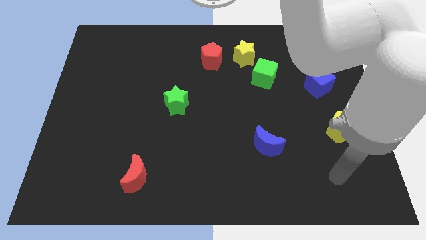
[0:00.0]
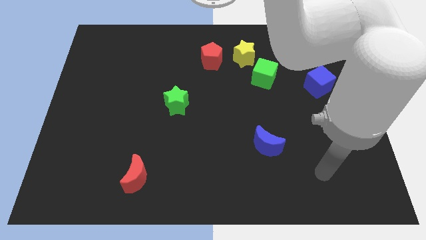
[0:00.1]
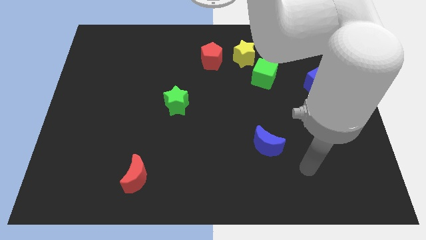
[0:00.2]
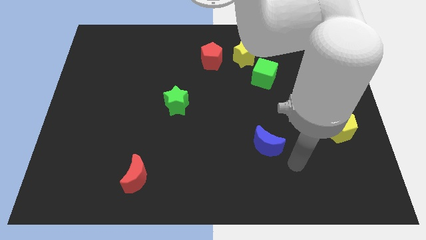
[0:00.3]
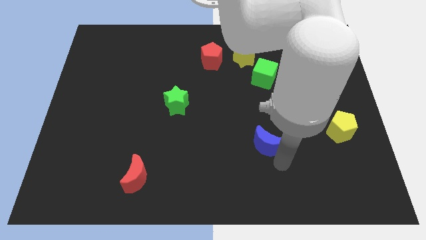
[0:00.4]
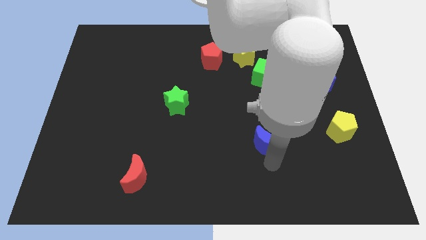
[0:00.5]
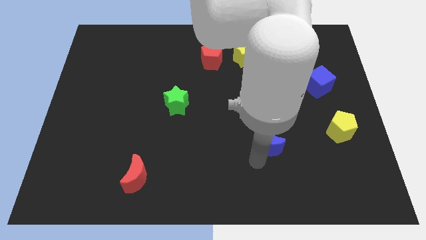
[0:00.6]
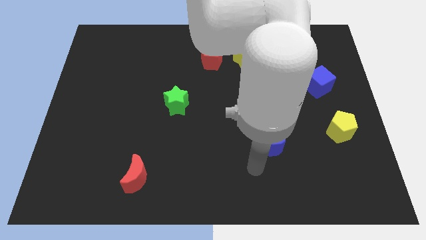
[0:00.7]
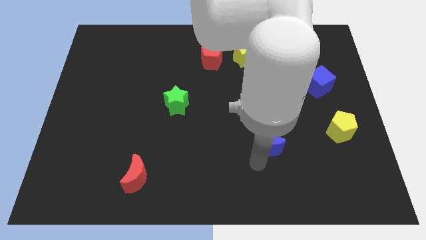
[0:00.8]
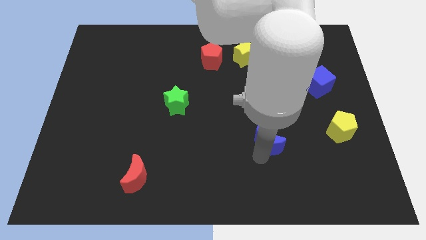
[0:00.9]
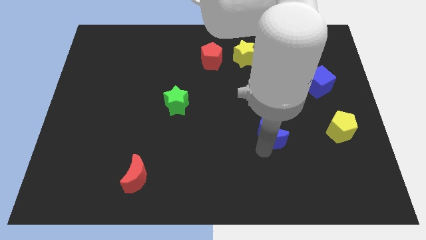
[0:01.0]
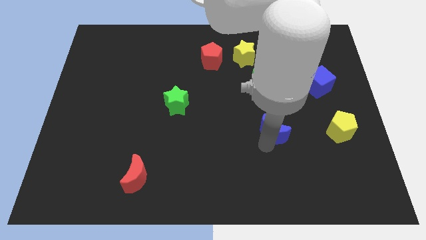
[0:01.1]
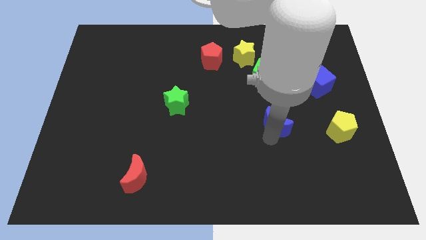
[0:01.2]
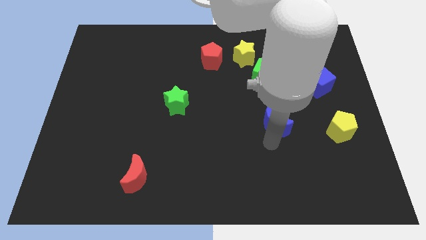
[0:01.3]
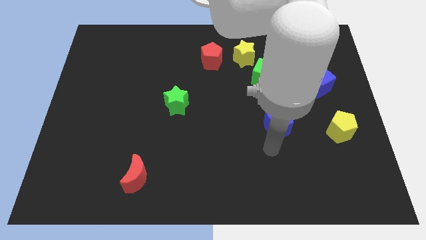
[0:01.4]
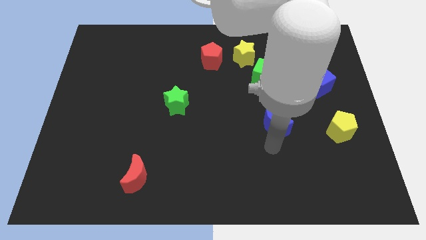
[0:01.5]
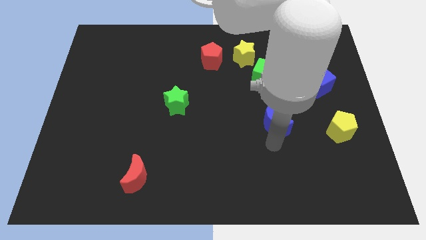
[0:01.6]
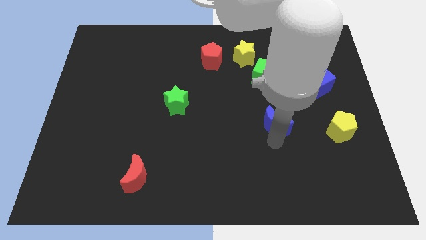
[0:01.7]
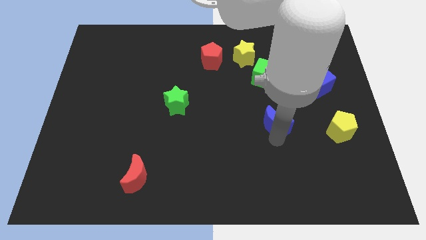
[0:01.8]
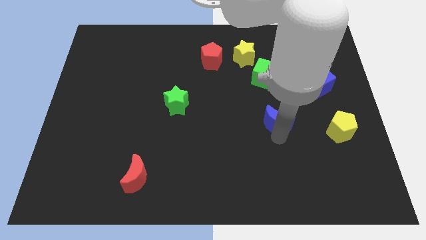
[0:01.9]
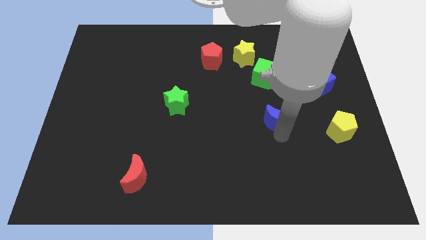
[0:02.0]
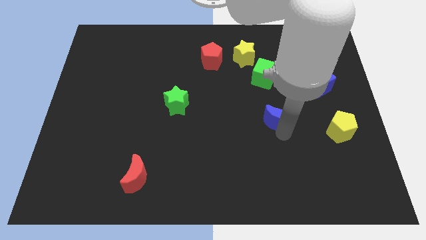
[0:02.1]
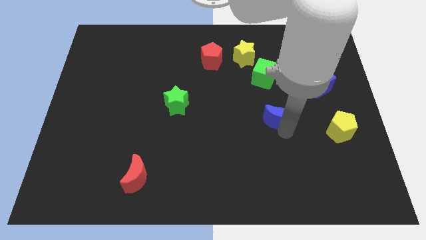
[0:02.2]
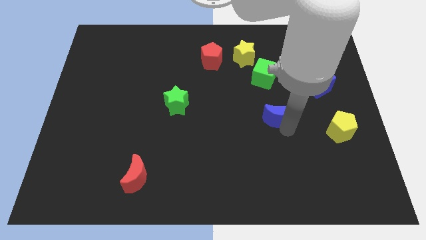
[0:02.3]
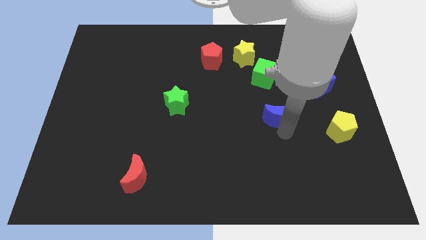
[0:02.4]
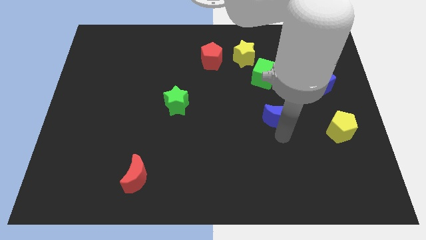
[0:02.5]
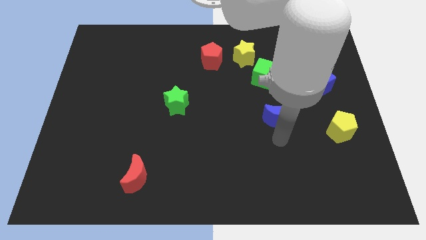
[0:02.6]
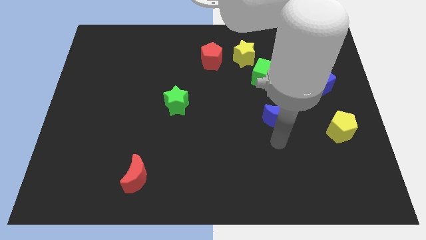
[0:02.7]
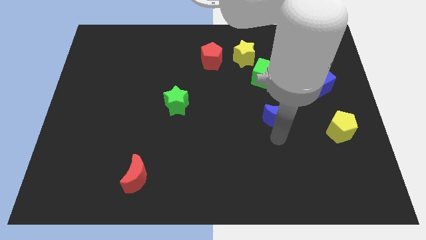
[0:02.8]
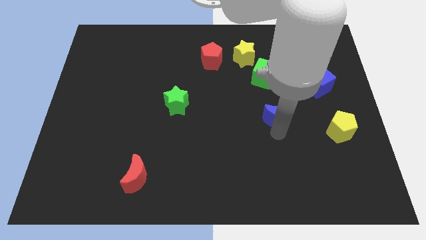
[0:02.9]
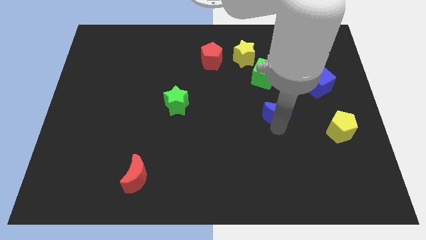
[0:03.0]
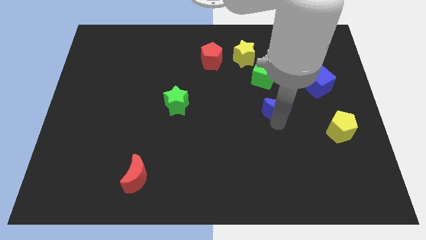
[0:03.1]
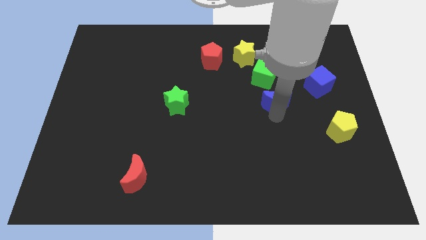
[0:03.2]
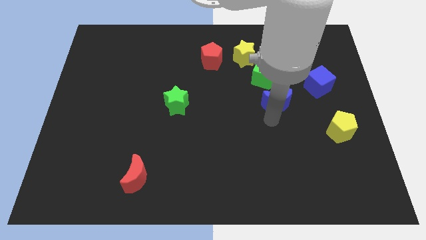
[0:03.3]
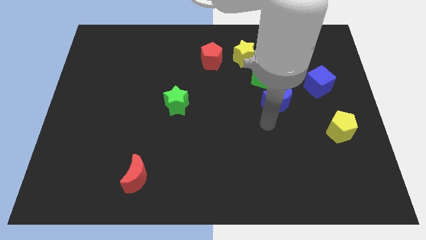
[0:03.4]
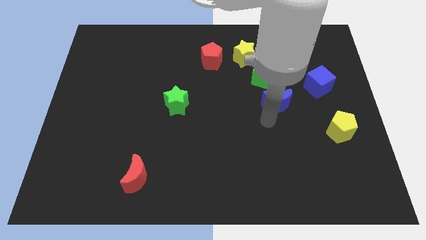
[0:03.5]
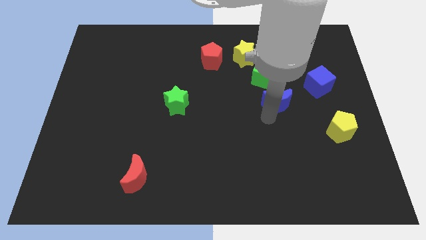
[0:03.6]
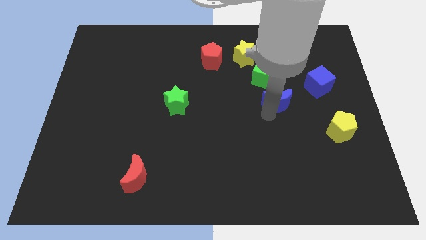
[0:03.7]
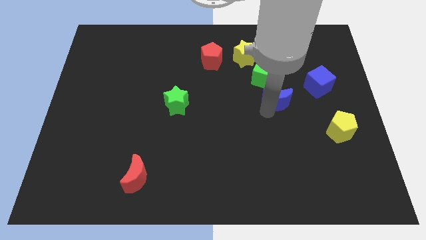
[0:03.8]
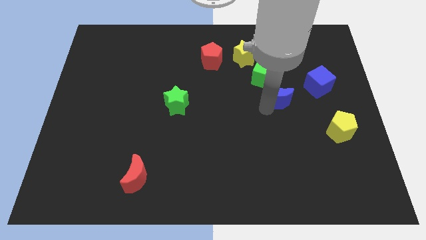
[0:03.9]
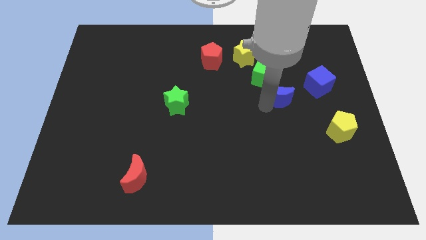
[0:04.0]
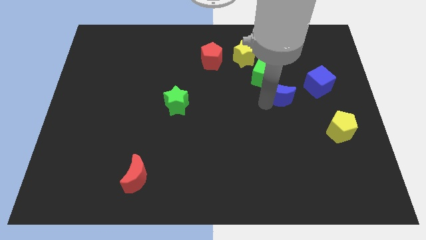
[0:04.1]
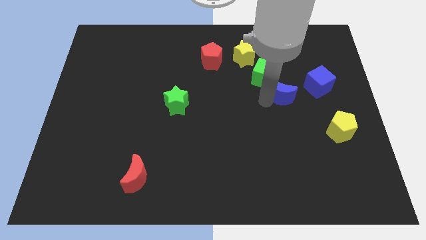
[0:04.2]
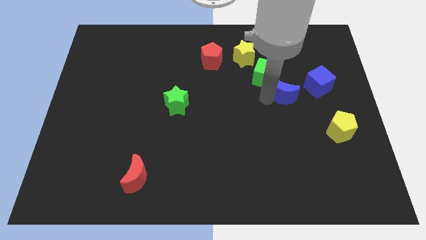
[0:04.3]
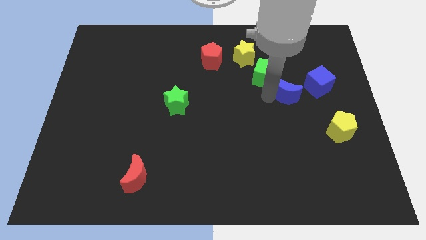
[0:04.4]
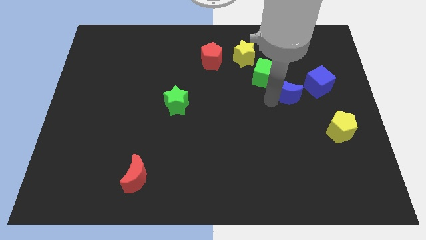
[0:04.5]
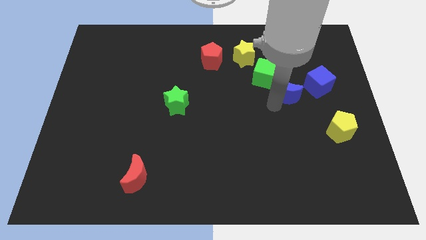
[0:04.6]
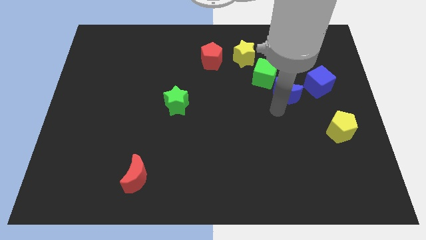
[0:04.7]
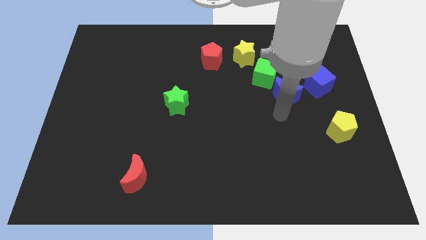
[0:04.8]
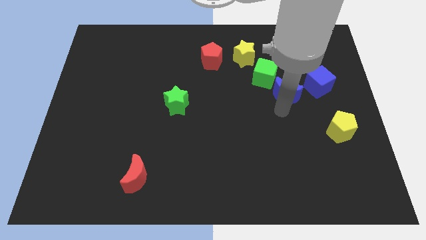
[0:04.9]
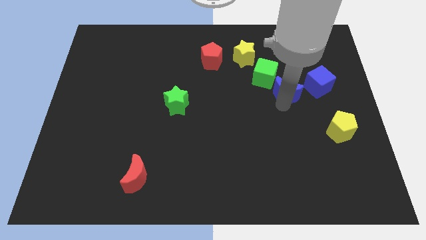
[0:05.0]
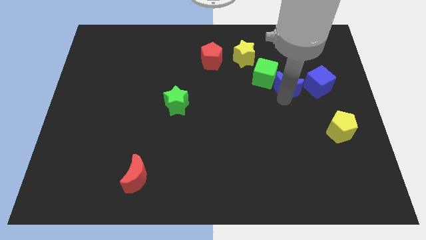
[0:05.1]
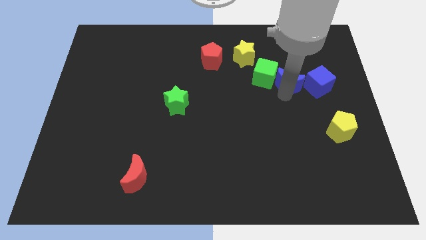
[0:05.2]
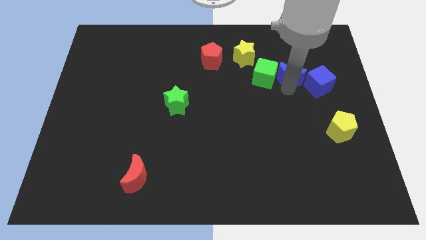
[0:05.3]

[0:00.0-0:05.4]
push the blue moon diagonally up and to the right of the green cube

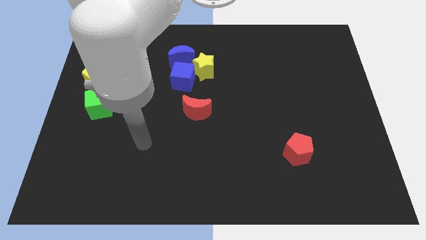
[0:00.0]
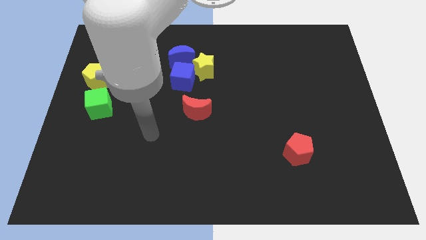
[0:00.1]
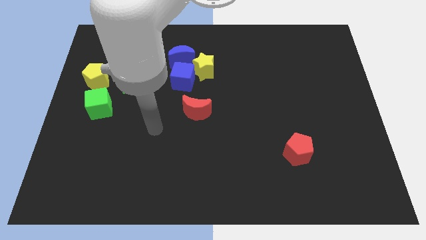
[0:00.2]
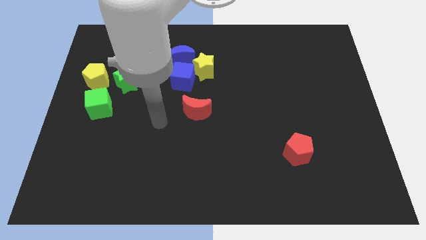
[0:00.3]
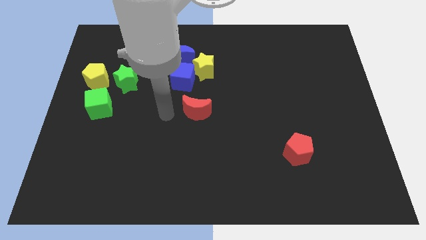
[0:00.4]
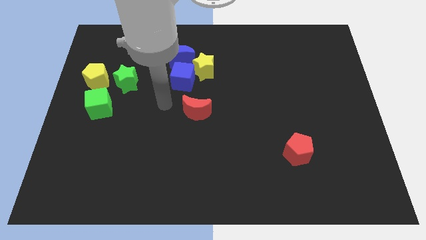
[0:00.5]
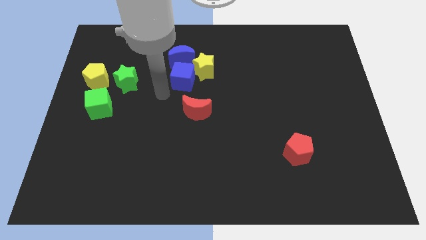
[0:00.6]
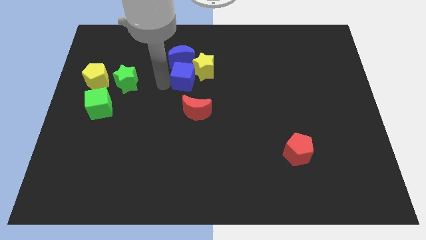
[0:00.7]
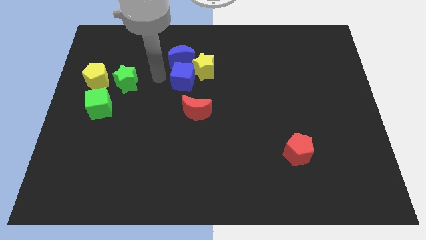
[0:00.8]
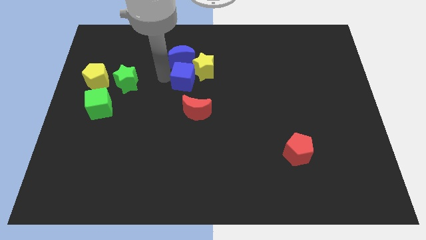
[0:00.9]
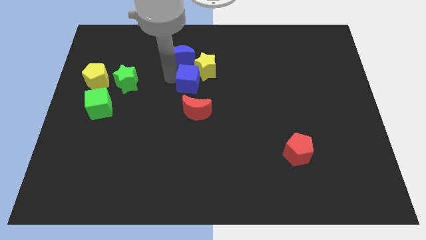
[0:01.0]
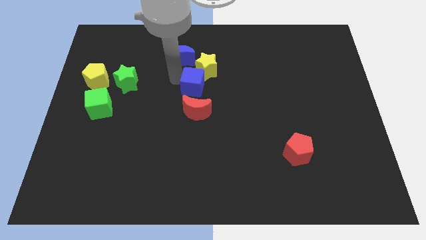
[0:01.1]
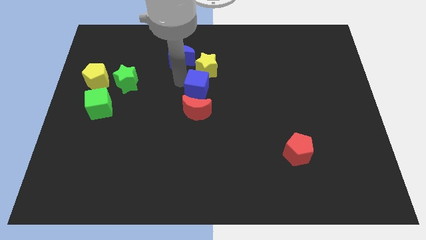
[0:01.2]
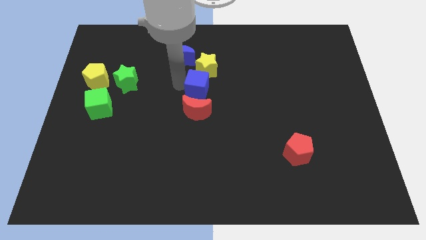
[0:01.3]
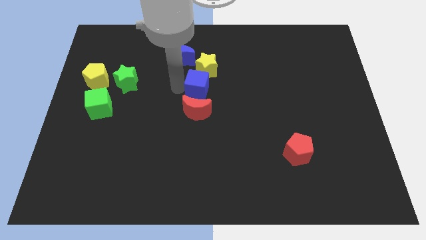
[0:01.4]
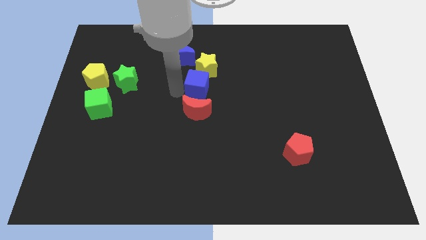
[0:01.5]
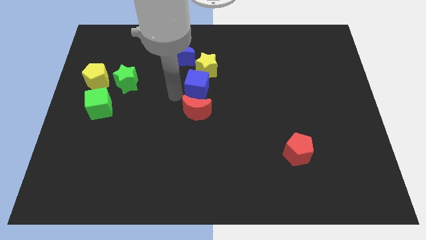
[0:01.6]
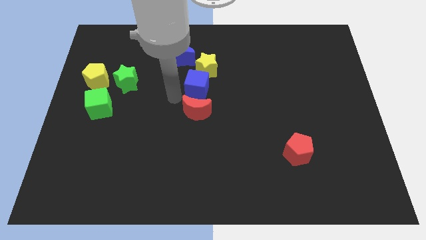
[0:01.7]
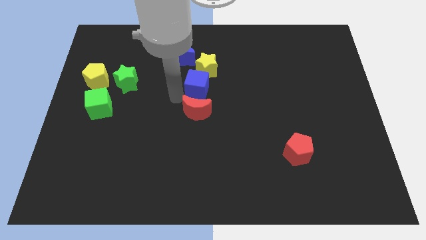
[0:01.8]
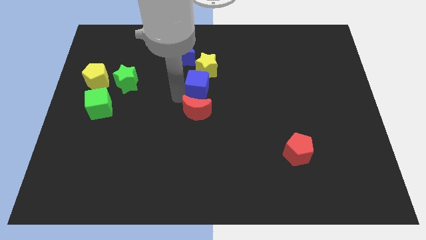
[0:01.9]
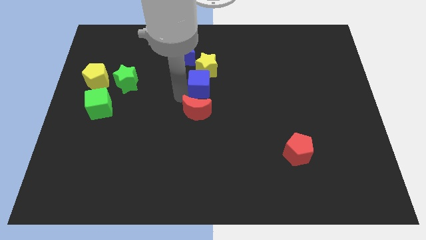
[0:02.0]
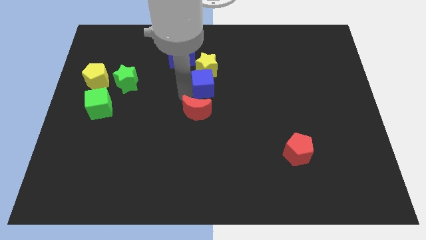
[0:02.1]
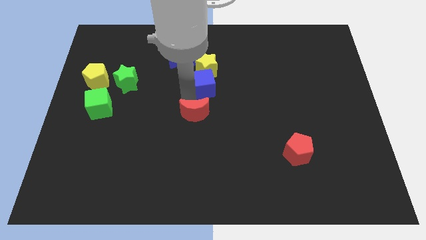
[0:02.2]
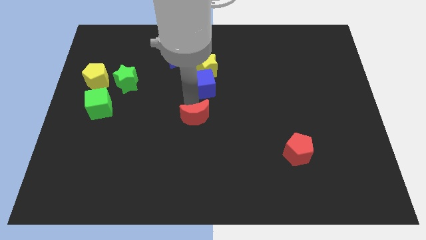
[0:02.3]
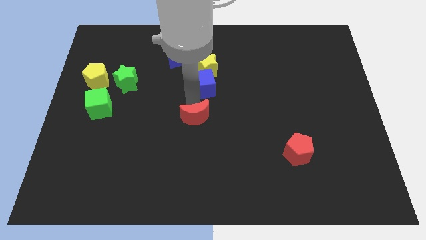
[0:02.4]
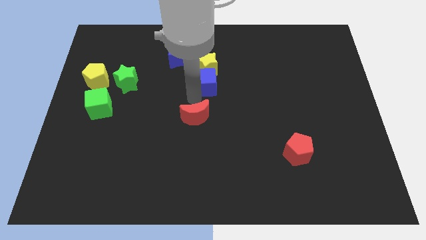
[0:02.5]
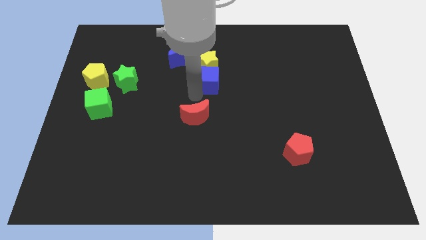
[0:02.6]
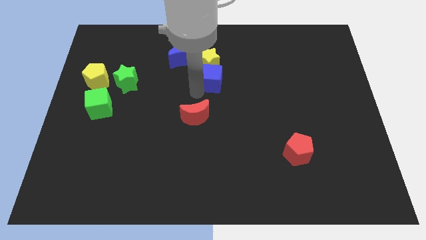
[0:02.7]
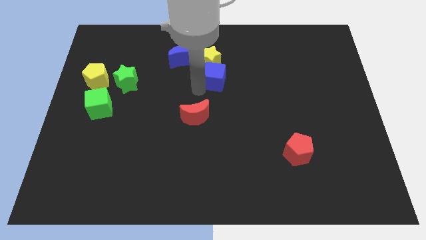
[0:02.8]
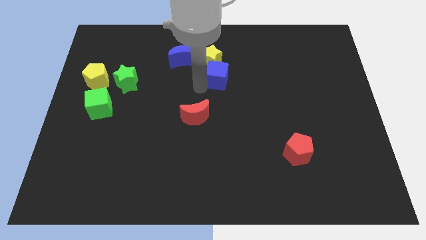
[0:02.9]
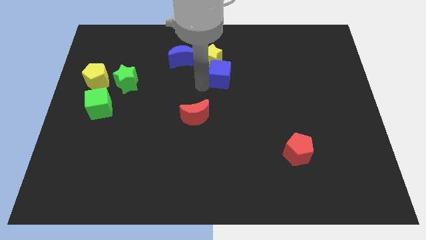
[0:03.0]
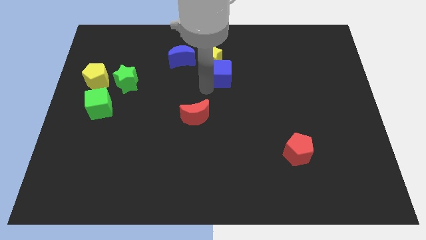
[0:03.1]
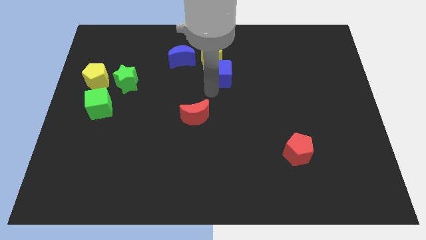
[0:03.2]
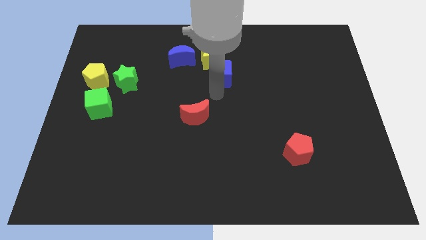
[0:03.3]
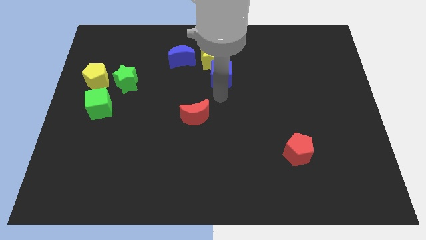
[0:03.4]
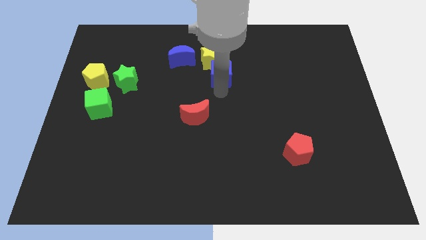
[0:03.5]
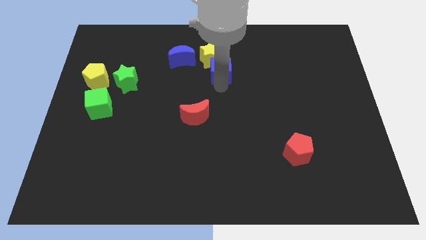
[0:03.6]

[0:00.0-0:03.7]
push the blue cube to the right side of the blue moon
